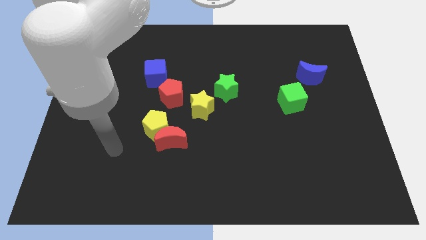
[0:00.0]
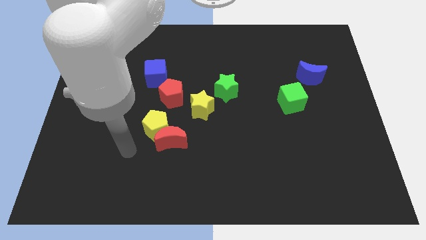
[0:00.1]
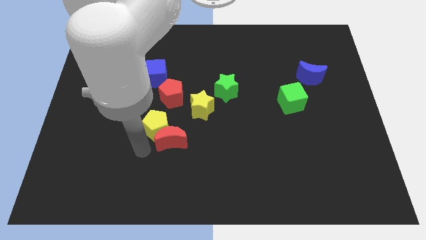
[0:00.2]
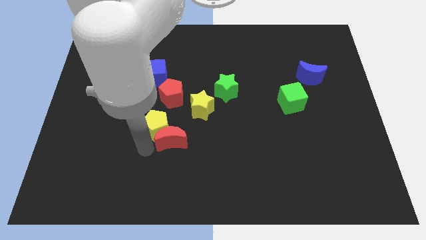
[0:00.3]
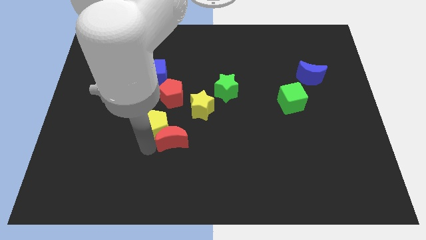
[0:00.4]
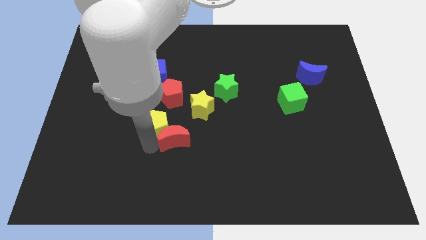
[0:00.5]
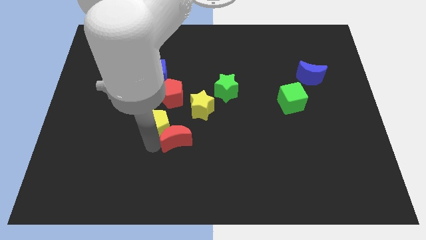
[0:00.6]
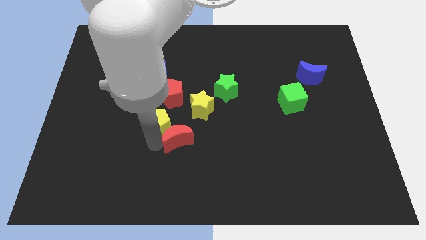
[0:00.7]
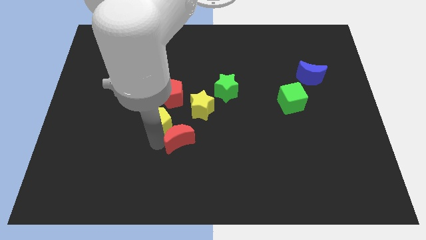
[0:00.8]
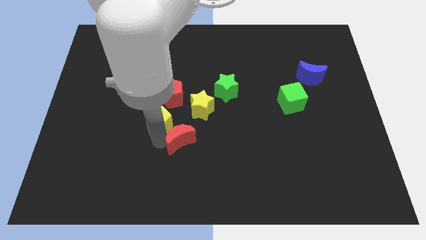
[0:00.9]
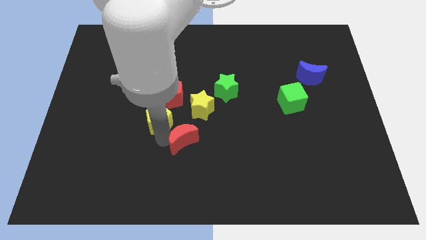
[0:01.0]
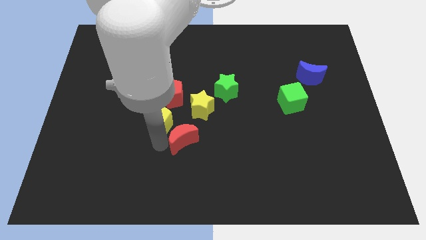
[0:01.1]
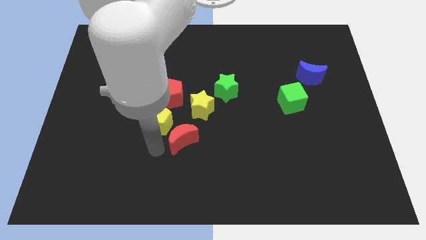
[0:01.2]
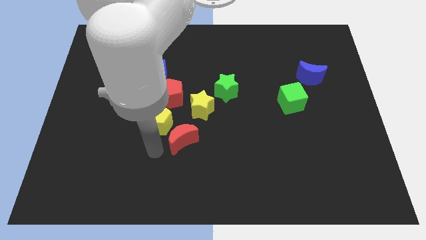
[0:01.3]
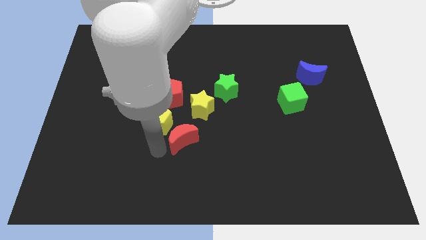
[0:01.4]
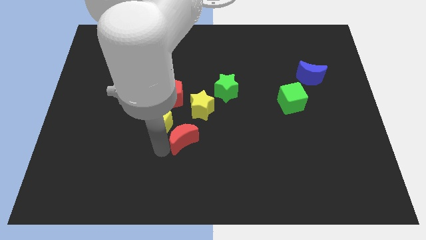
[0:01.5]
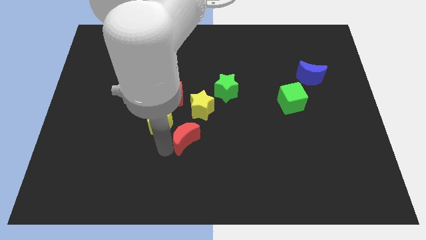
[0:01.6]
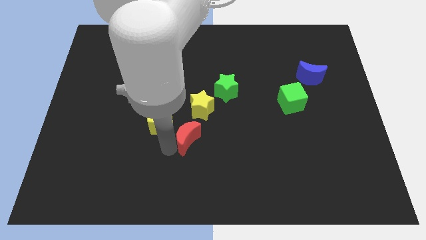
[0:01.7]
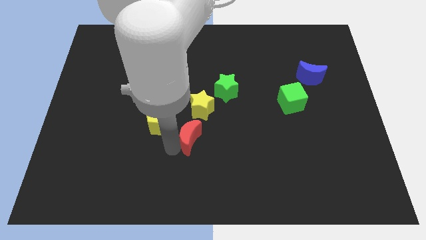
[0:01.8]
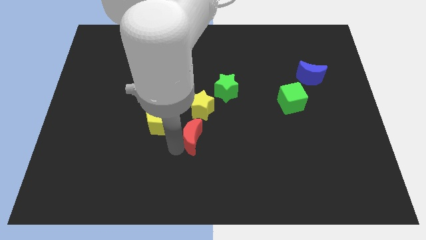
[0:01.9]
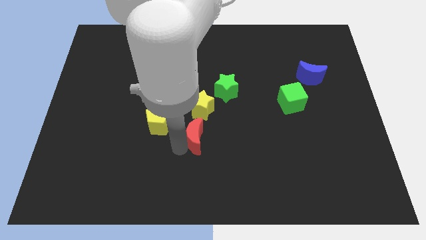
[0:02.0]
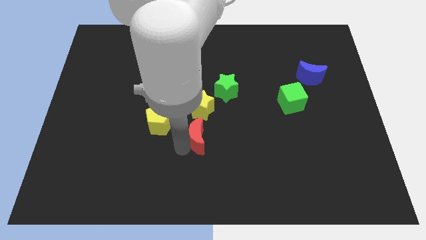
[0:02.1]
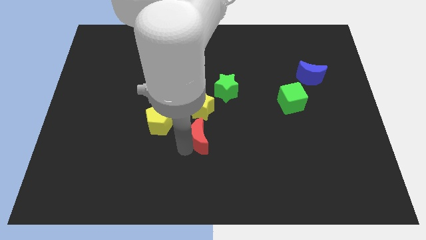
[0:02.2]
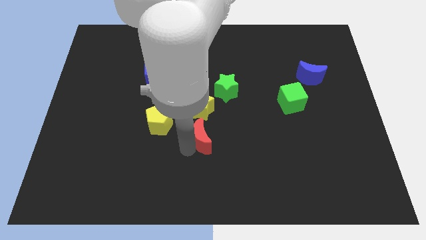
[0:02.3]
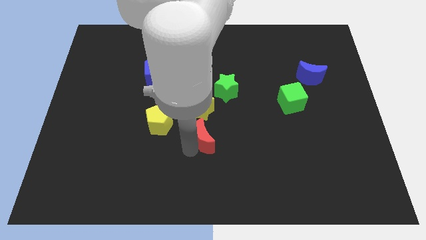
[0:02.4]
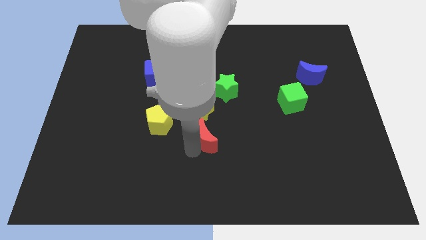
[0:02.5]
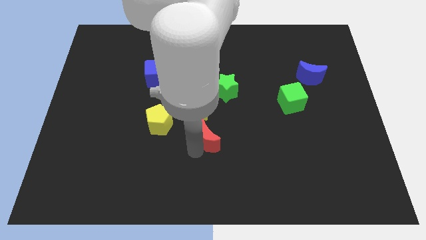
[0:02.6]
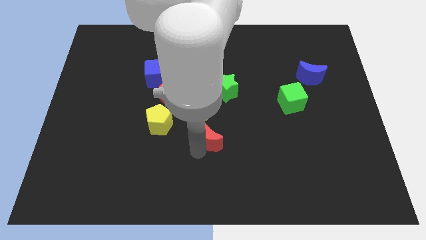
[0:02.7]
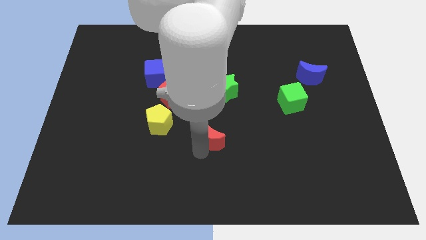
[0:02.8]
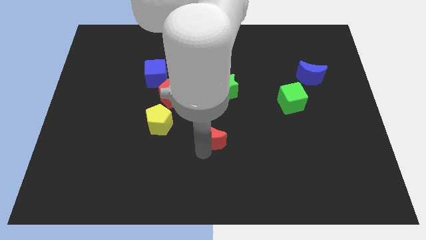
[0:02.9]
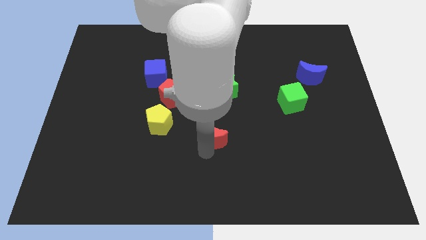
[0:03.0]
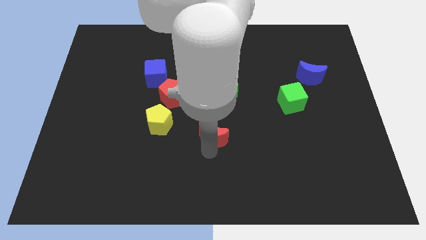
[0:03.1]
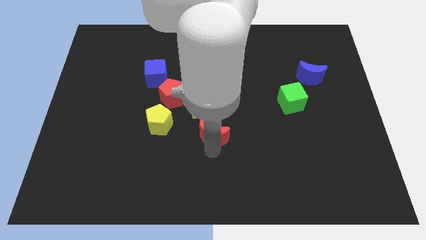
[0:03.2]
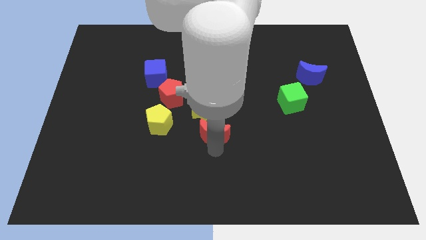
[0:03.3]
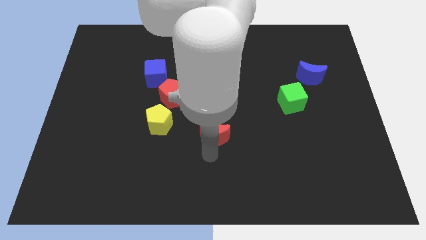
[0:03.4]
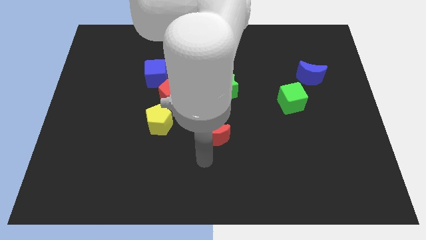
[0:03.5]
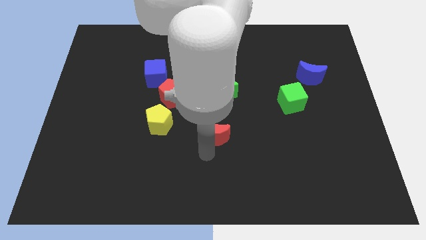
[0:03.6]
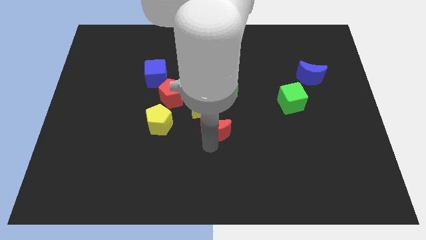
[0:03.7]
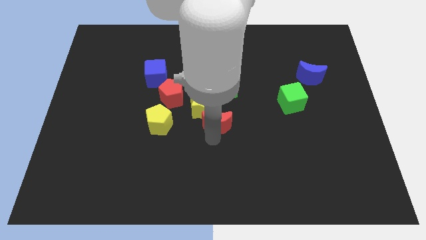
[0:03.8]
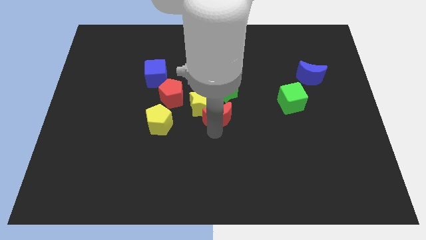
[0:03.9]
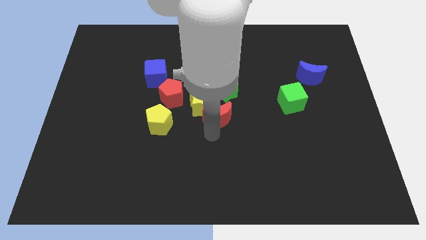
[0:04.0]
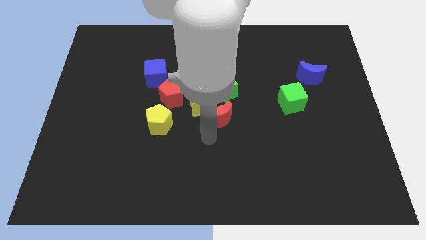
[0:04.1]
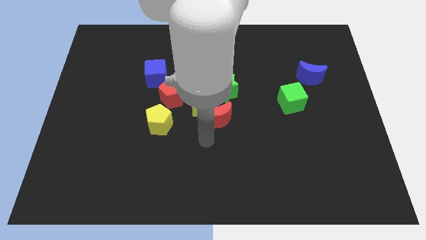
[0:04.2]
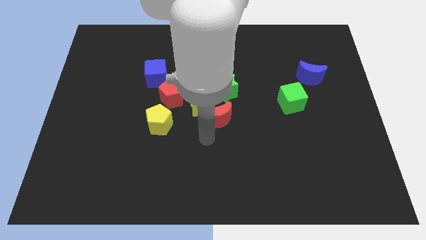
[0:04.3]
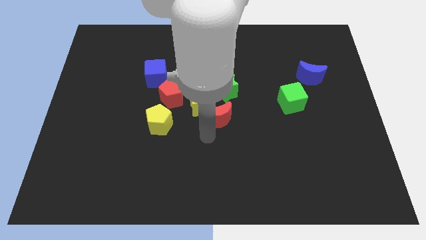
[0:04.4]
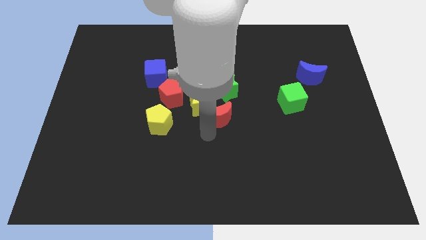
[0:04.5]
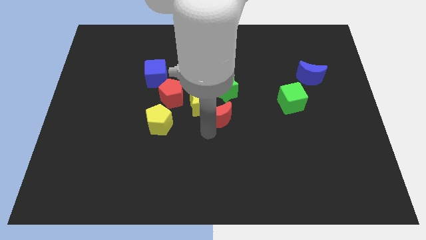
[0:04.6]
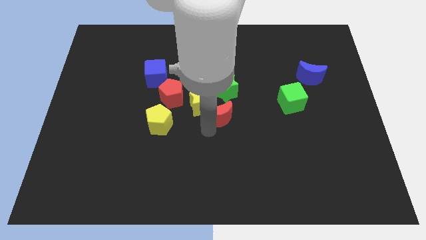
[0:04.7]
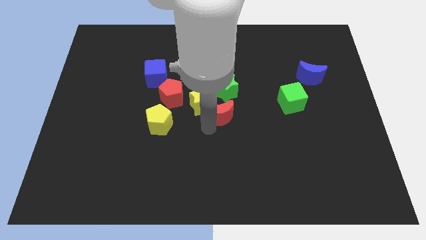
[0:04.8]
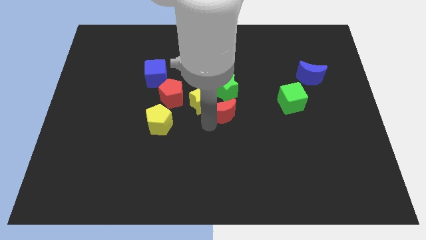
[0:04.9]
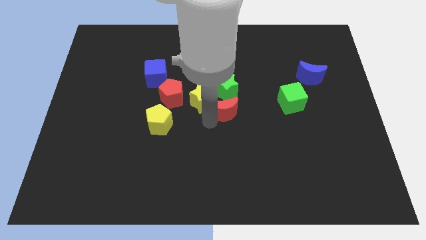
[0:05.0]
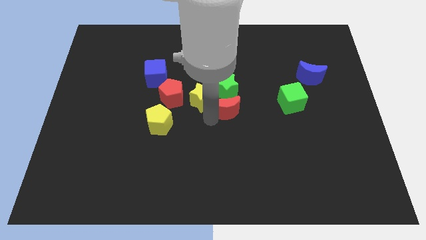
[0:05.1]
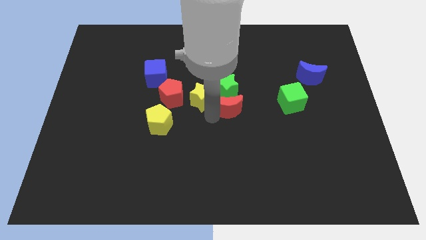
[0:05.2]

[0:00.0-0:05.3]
put the red moon close to the green star

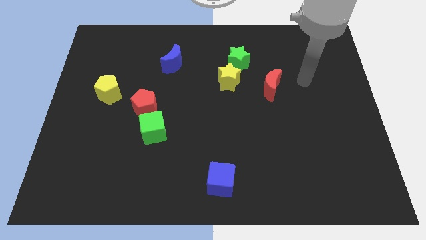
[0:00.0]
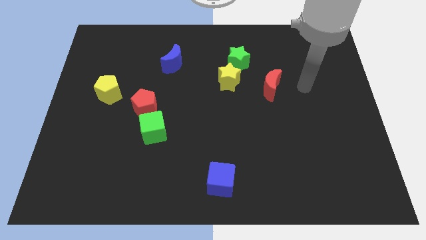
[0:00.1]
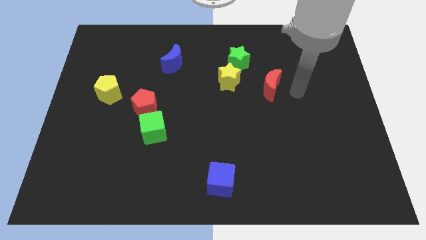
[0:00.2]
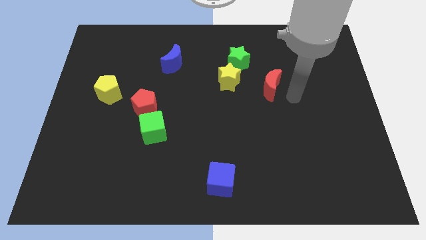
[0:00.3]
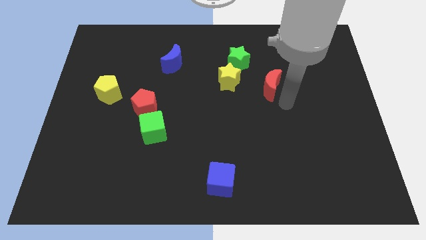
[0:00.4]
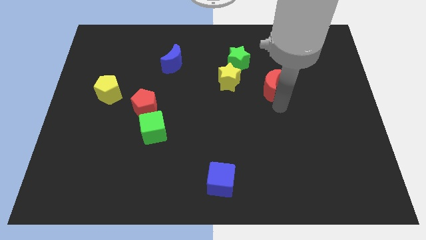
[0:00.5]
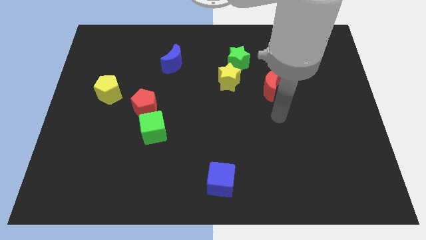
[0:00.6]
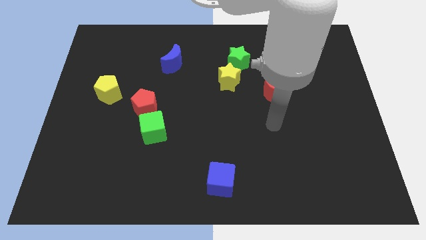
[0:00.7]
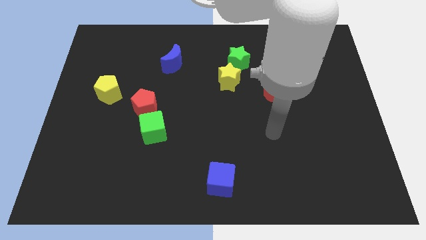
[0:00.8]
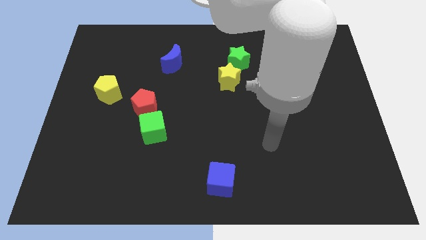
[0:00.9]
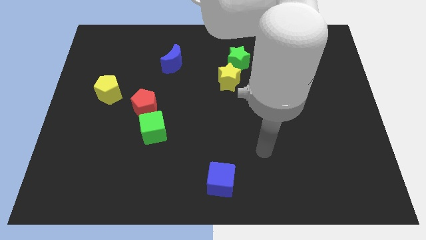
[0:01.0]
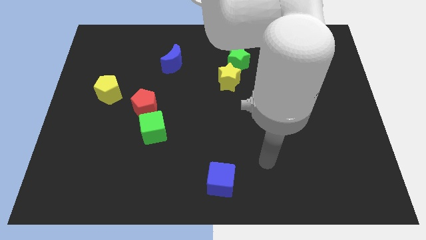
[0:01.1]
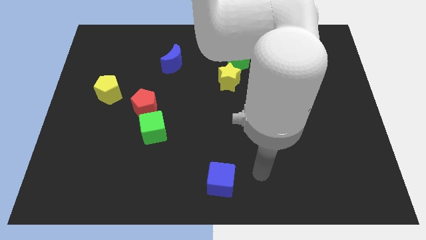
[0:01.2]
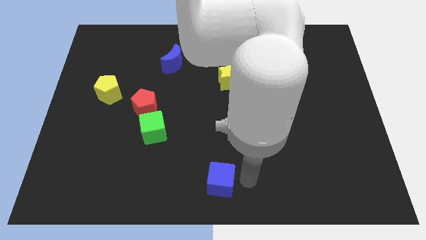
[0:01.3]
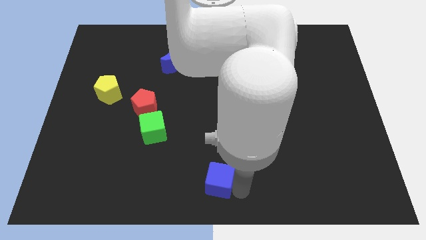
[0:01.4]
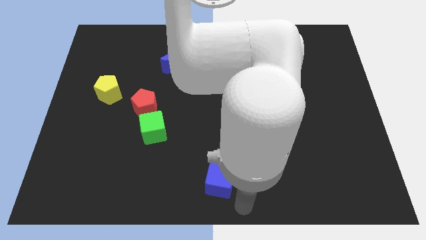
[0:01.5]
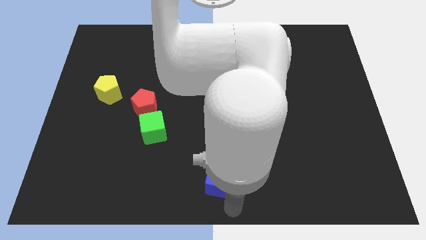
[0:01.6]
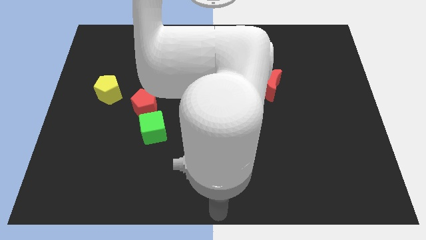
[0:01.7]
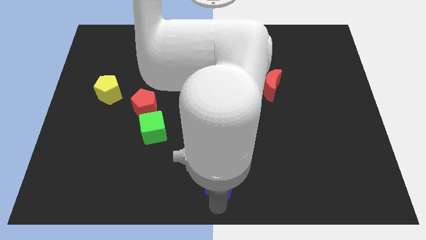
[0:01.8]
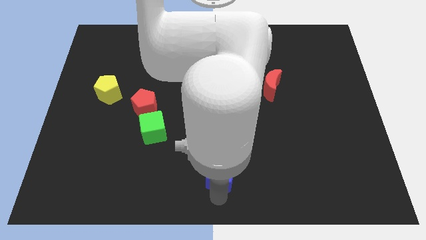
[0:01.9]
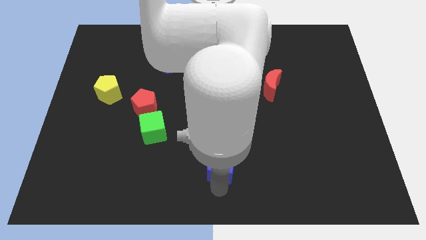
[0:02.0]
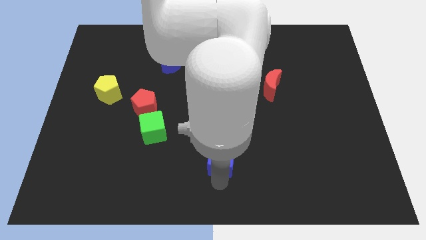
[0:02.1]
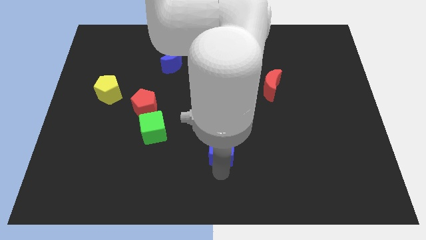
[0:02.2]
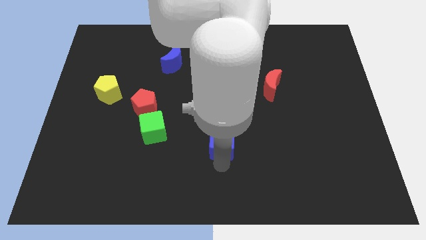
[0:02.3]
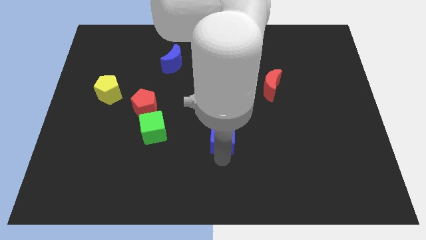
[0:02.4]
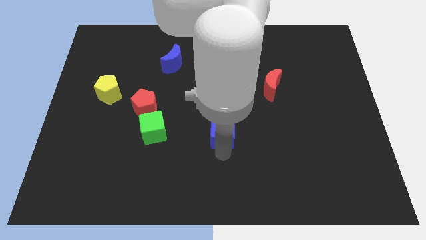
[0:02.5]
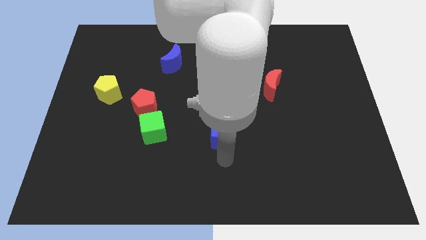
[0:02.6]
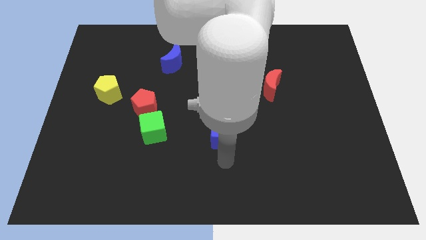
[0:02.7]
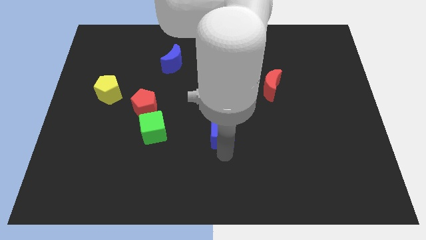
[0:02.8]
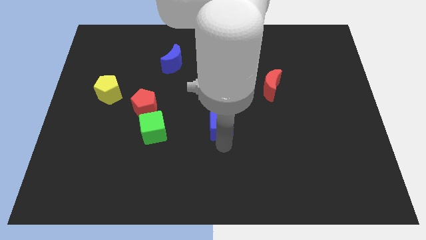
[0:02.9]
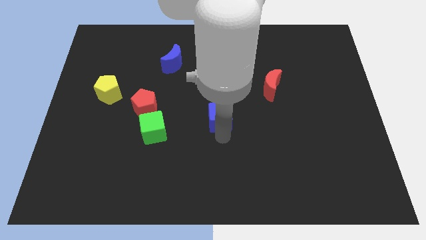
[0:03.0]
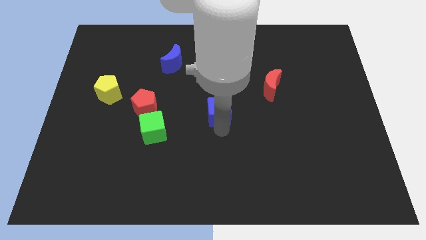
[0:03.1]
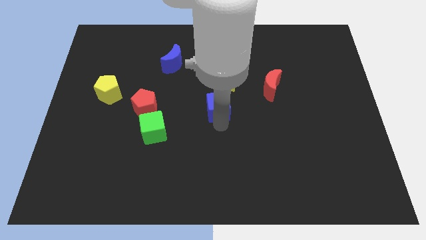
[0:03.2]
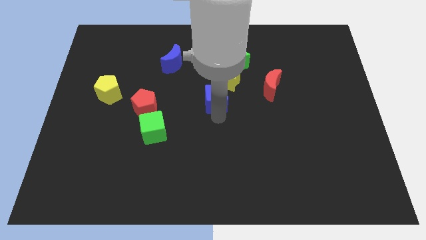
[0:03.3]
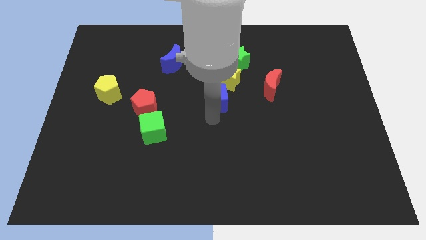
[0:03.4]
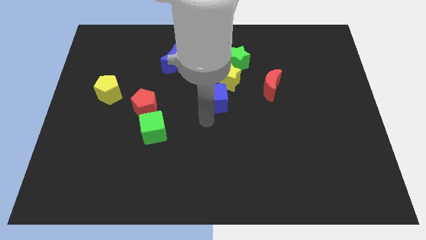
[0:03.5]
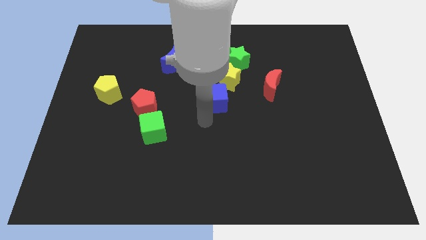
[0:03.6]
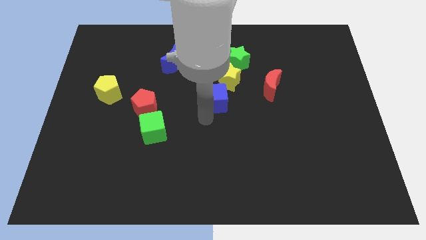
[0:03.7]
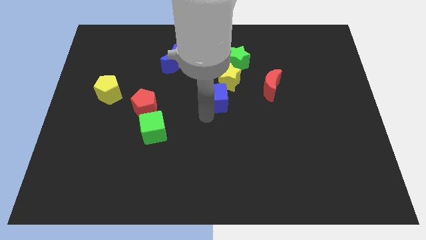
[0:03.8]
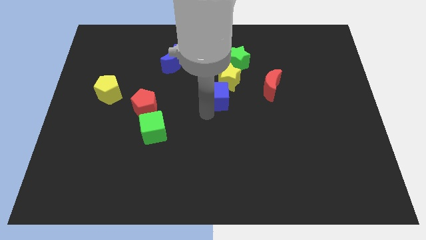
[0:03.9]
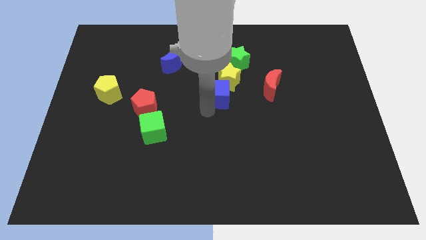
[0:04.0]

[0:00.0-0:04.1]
push the blue cube to the yellow star
